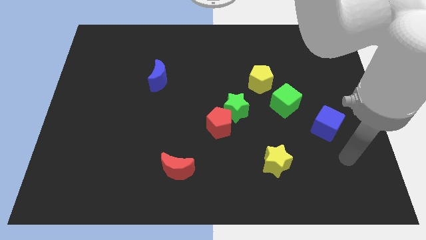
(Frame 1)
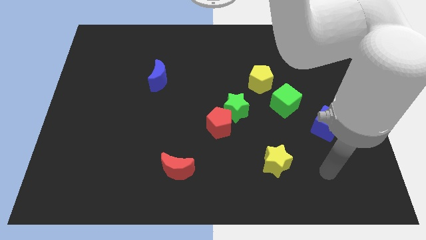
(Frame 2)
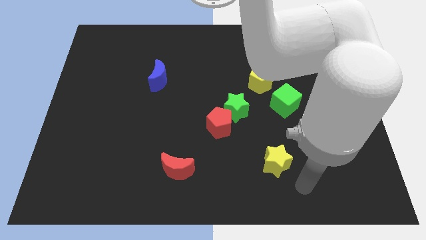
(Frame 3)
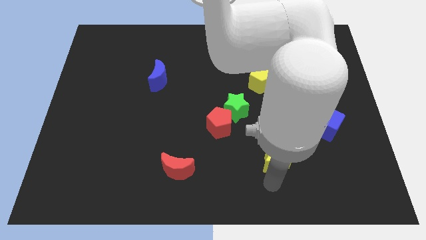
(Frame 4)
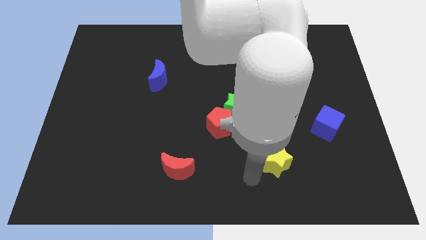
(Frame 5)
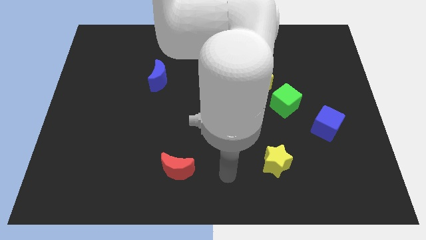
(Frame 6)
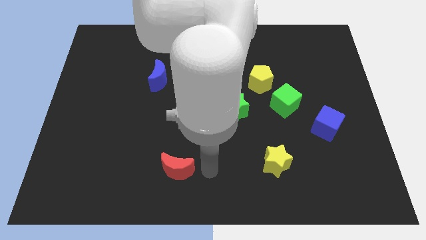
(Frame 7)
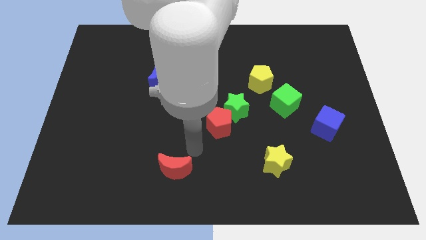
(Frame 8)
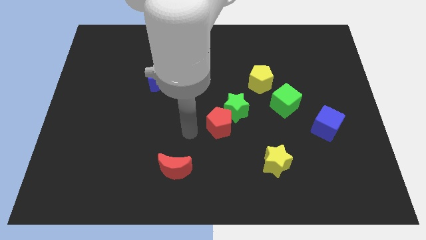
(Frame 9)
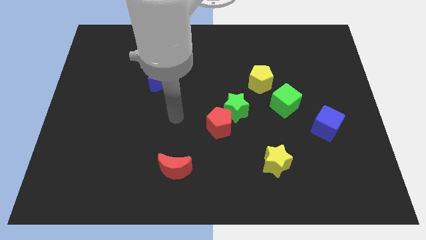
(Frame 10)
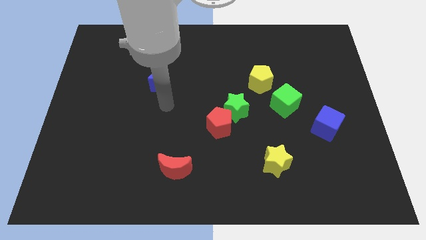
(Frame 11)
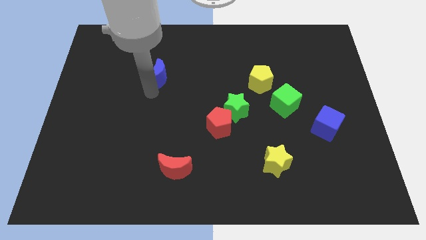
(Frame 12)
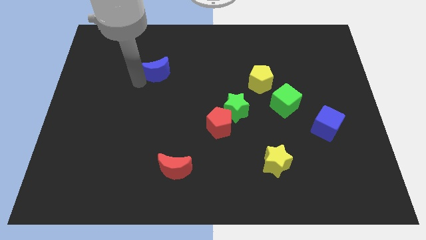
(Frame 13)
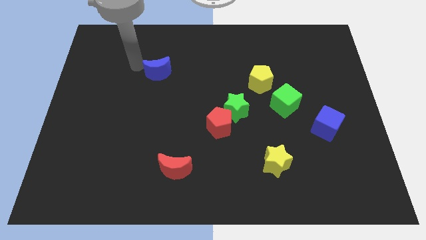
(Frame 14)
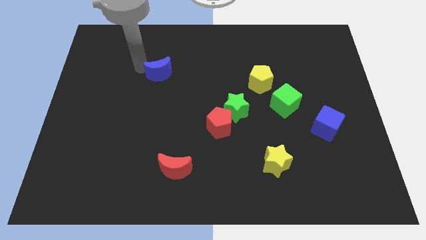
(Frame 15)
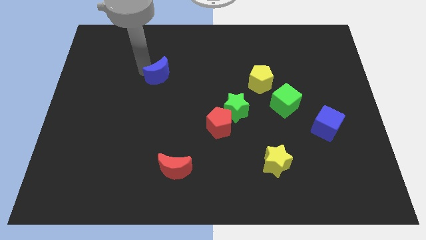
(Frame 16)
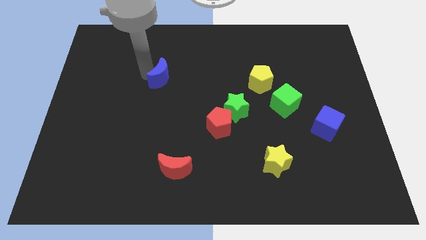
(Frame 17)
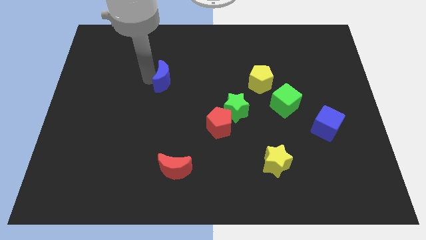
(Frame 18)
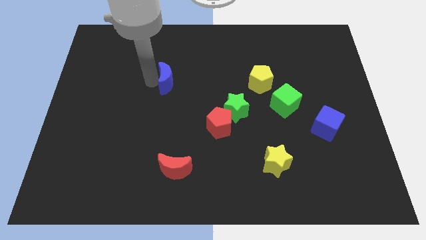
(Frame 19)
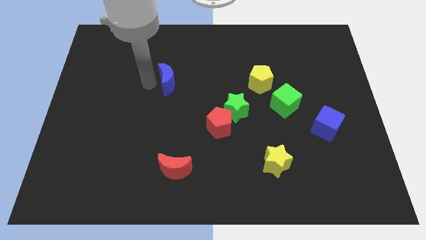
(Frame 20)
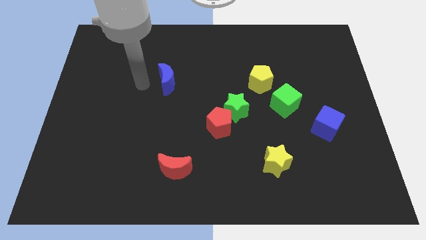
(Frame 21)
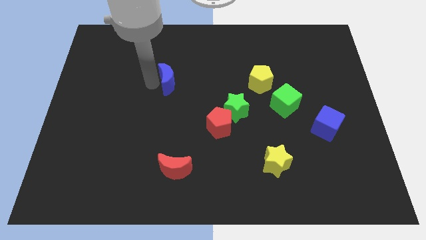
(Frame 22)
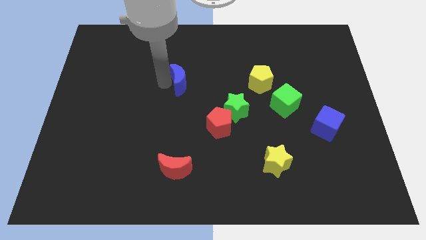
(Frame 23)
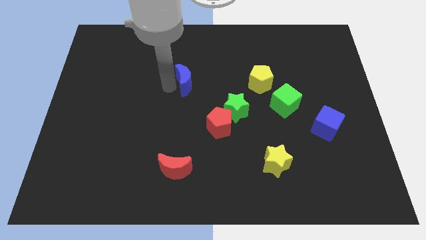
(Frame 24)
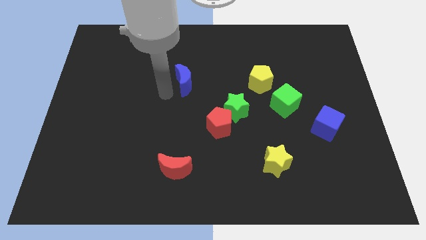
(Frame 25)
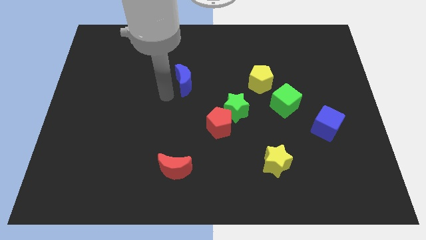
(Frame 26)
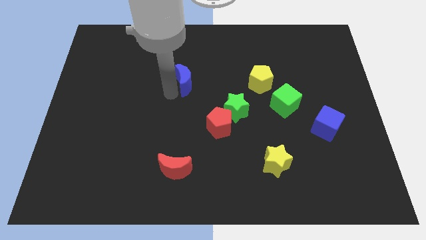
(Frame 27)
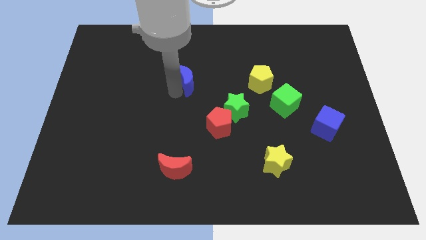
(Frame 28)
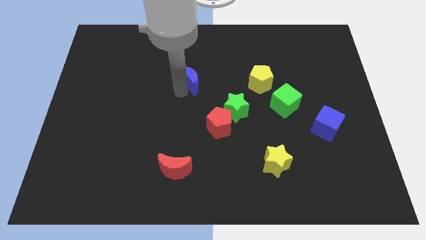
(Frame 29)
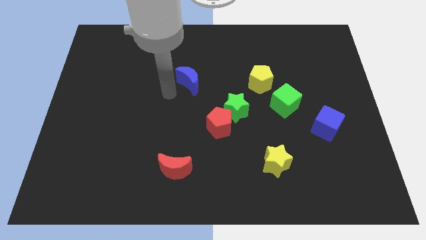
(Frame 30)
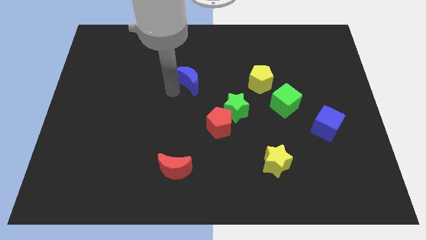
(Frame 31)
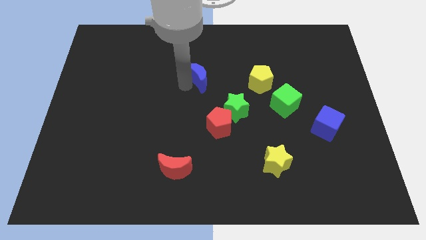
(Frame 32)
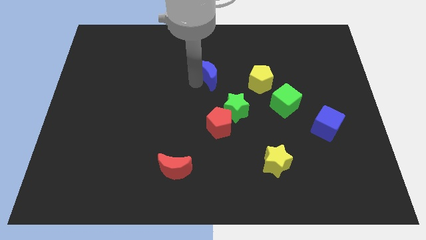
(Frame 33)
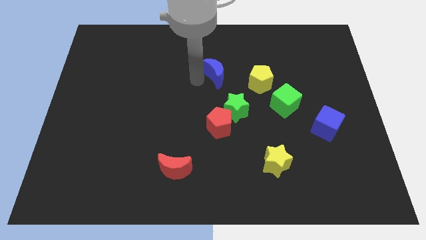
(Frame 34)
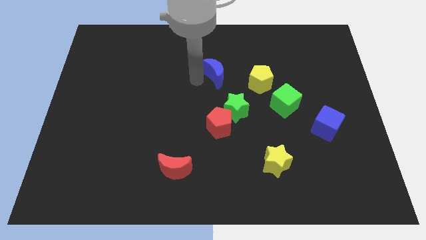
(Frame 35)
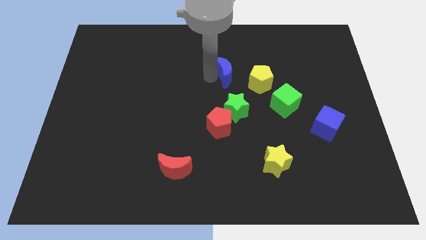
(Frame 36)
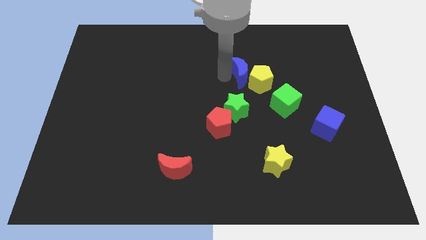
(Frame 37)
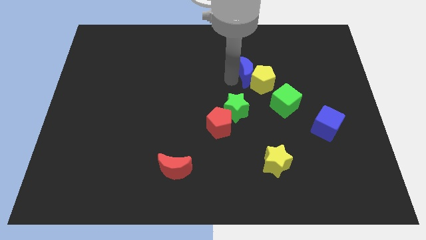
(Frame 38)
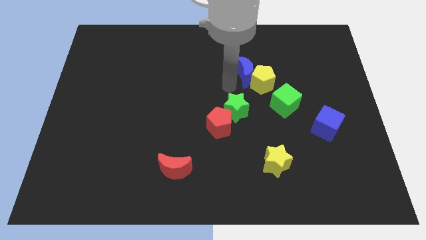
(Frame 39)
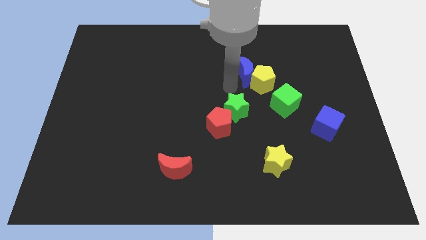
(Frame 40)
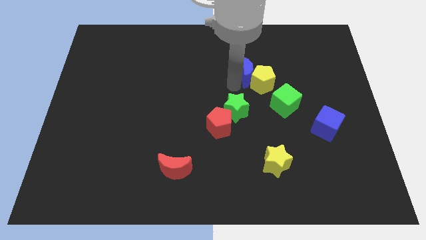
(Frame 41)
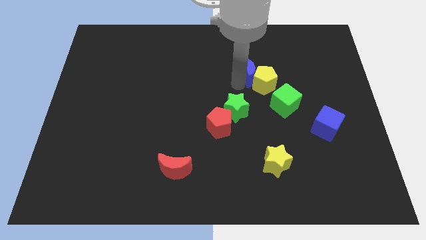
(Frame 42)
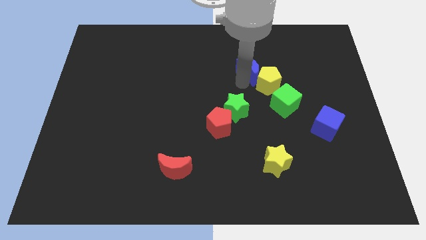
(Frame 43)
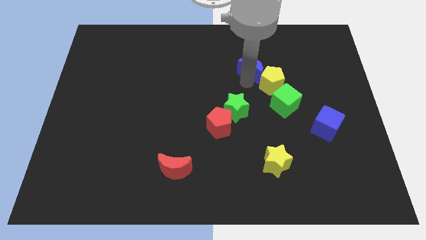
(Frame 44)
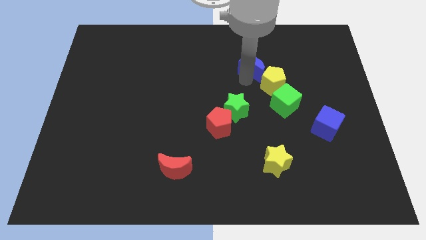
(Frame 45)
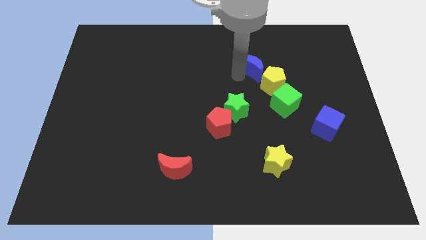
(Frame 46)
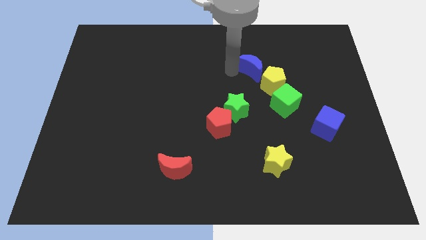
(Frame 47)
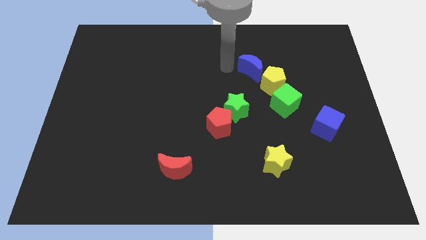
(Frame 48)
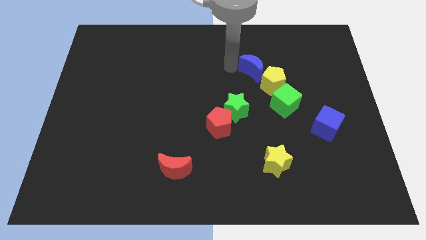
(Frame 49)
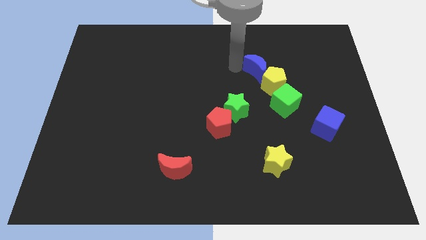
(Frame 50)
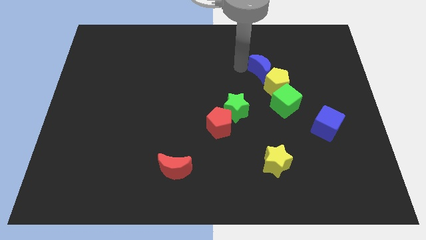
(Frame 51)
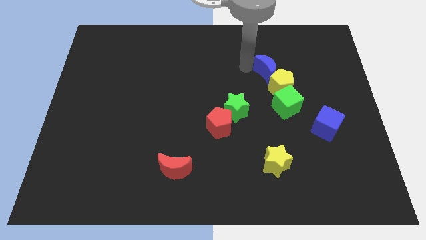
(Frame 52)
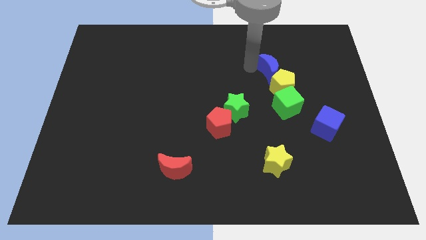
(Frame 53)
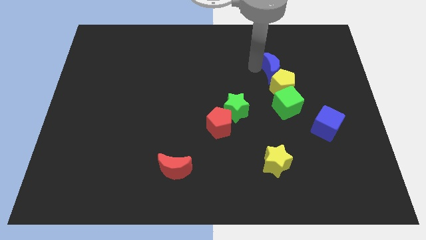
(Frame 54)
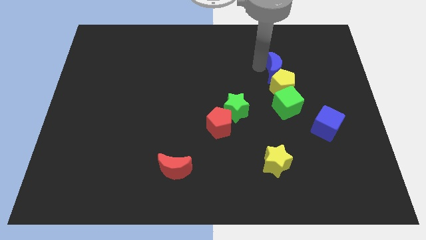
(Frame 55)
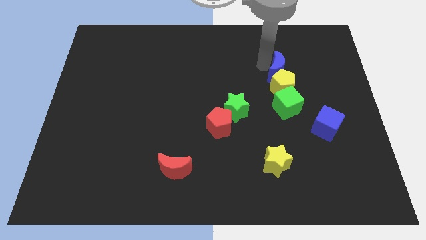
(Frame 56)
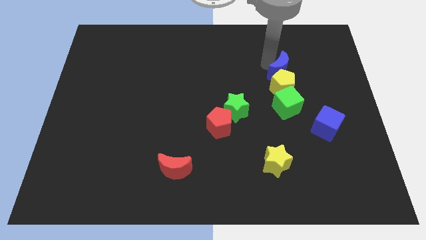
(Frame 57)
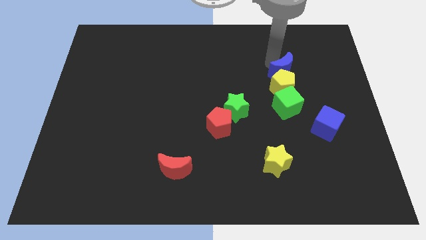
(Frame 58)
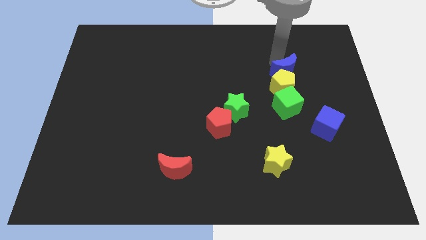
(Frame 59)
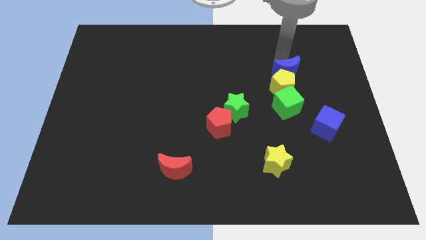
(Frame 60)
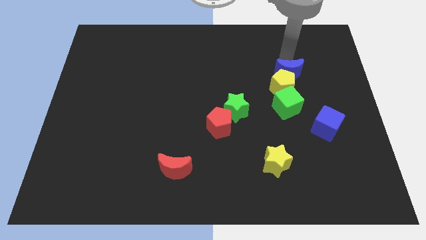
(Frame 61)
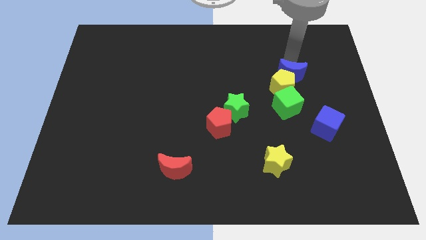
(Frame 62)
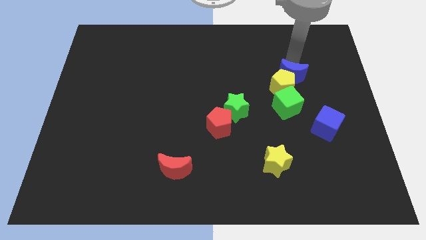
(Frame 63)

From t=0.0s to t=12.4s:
slide the blue moon to the top right of the green cube
